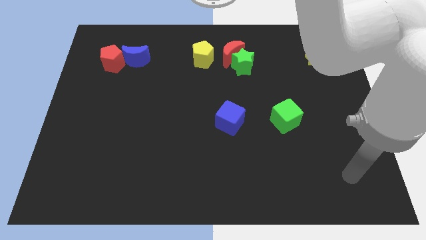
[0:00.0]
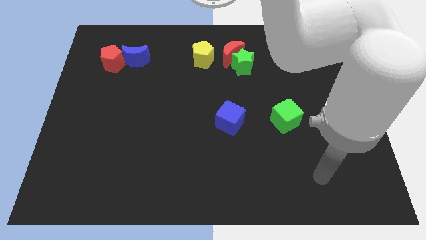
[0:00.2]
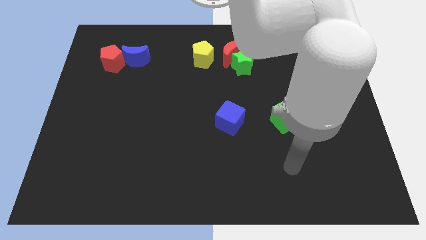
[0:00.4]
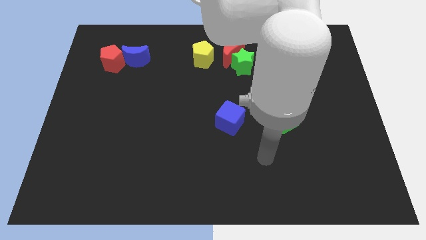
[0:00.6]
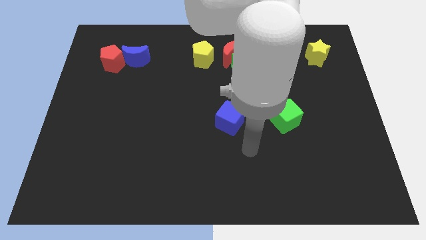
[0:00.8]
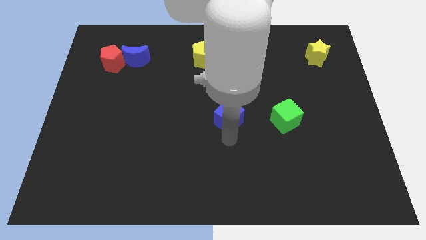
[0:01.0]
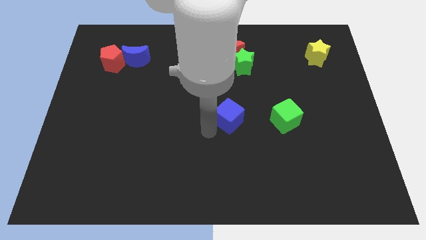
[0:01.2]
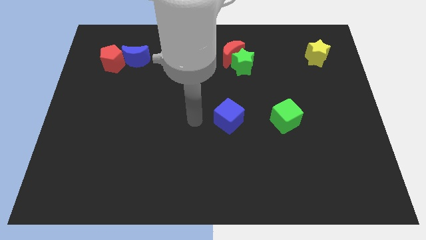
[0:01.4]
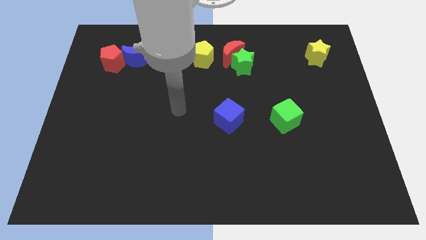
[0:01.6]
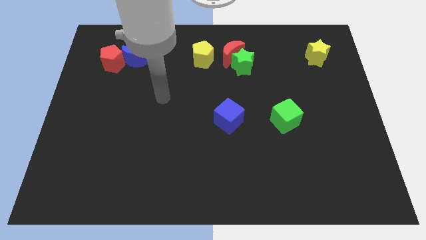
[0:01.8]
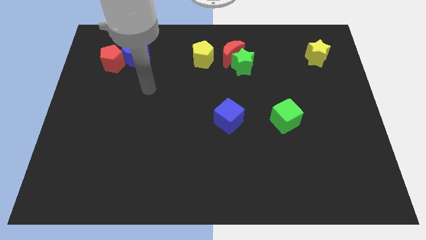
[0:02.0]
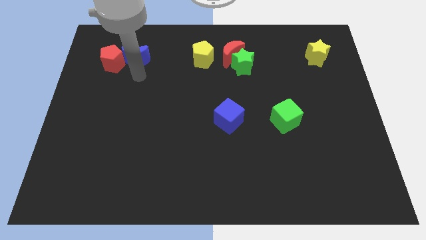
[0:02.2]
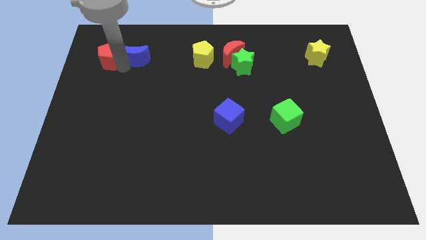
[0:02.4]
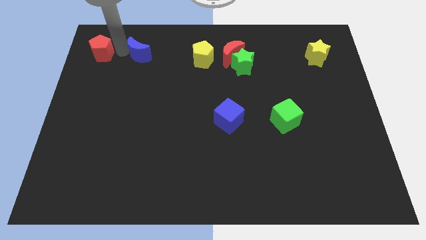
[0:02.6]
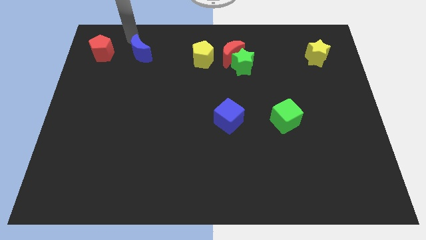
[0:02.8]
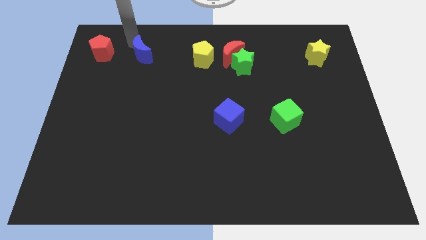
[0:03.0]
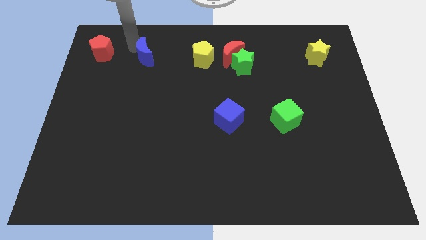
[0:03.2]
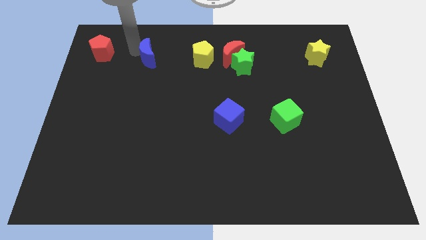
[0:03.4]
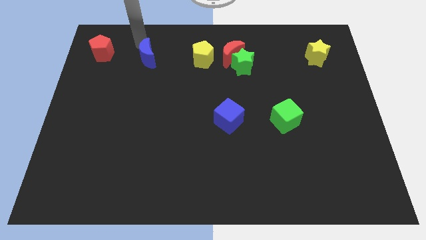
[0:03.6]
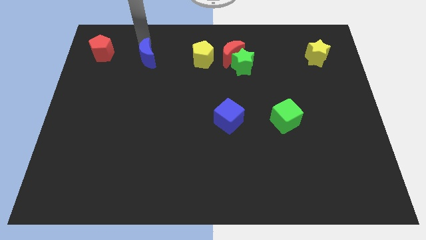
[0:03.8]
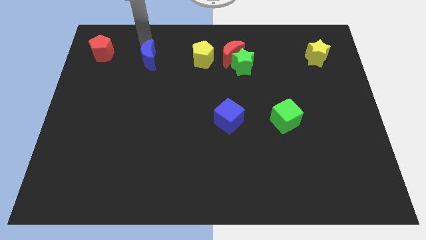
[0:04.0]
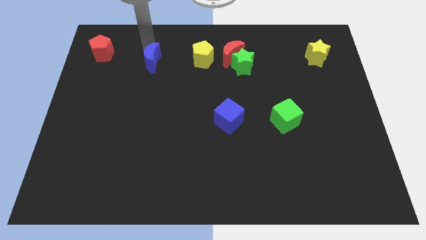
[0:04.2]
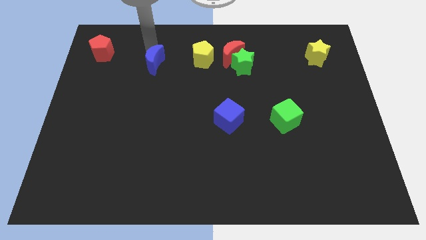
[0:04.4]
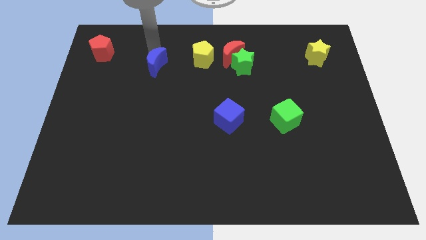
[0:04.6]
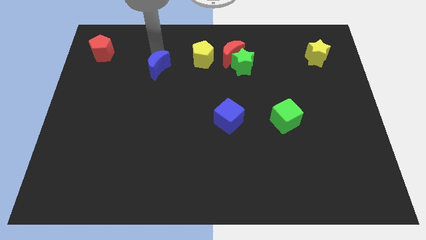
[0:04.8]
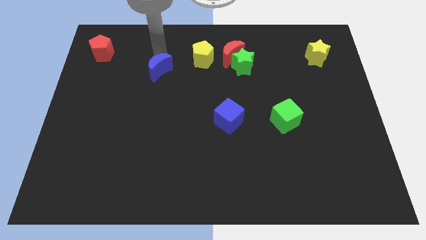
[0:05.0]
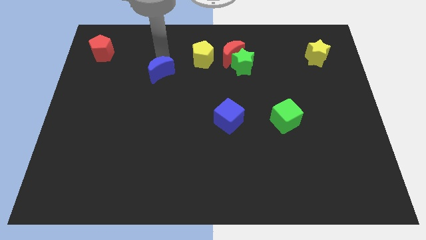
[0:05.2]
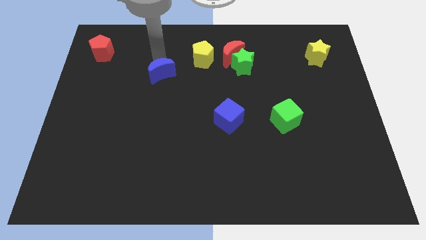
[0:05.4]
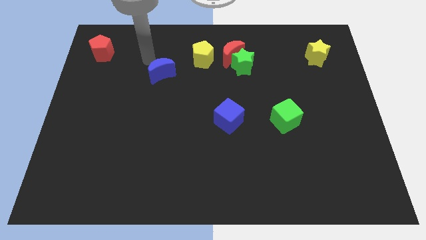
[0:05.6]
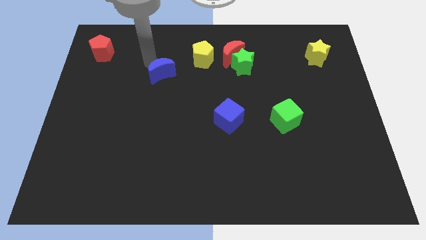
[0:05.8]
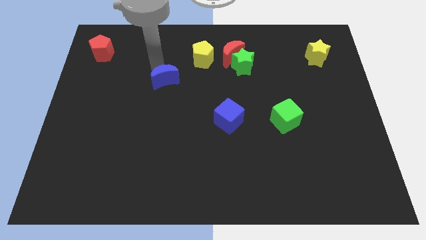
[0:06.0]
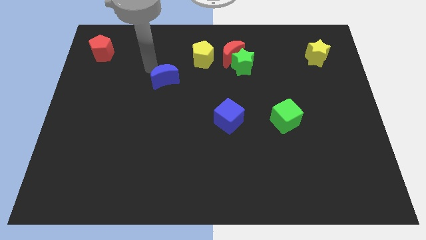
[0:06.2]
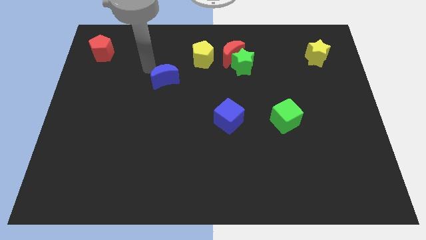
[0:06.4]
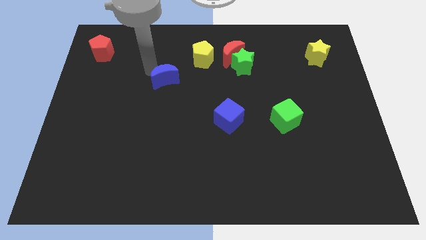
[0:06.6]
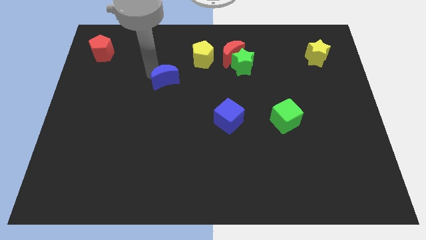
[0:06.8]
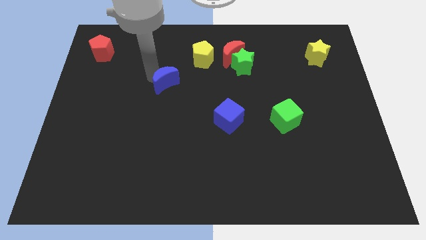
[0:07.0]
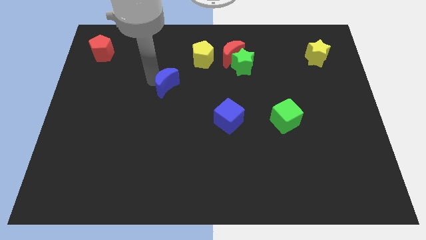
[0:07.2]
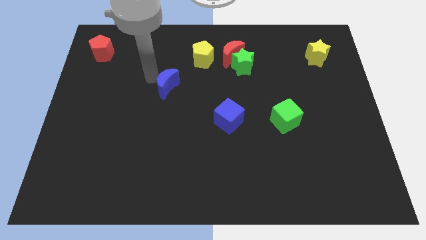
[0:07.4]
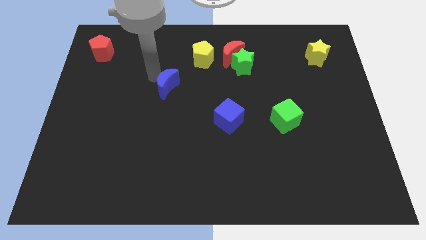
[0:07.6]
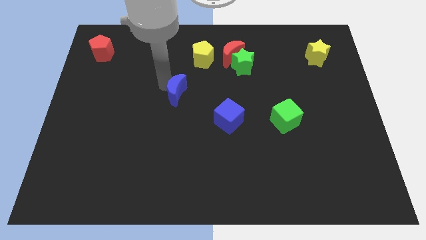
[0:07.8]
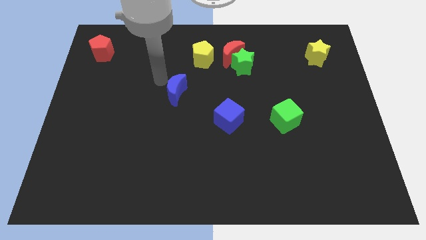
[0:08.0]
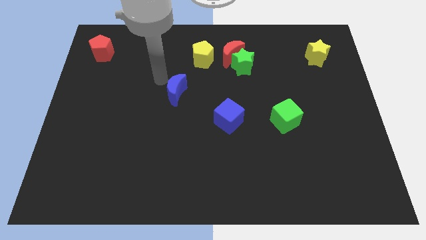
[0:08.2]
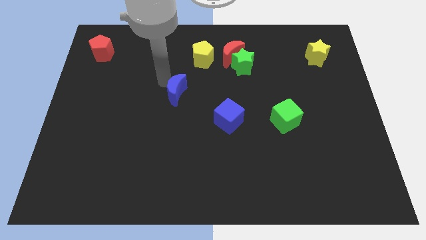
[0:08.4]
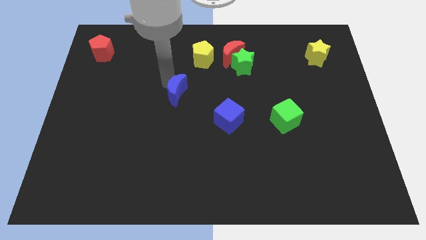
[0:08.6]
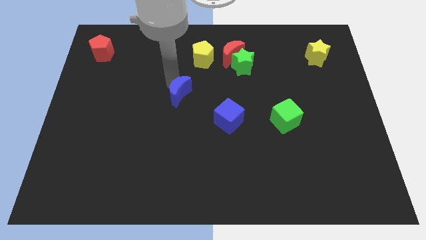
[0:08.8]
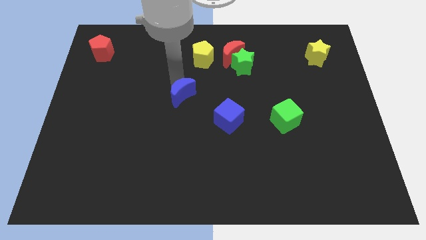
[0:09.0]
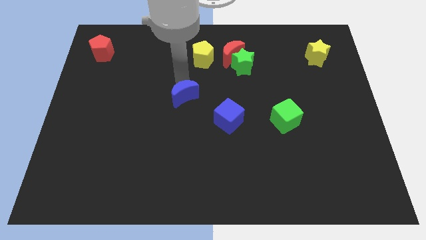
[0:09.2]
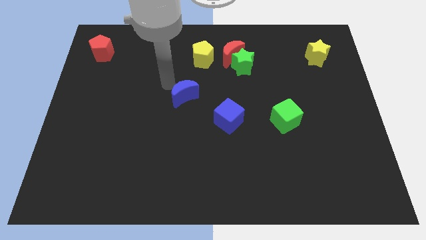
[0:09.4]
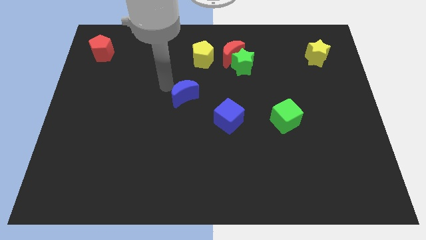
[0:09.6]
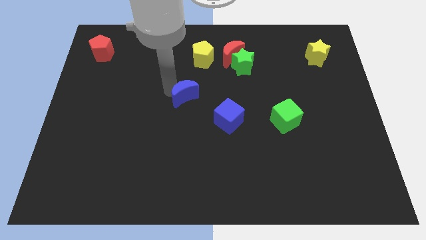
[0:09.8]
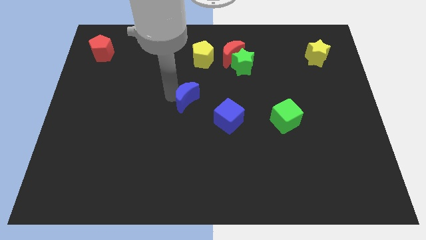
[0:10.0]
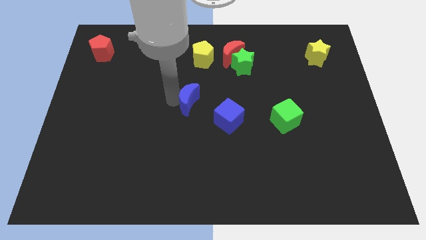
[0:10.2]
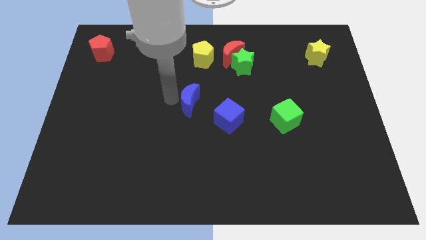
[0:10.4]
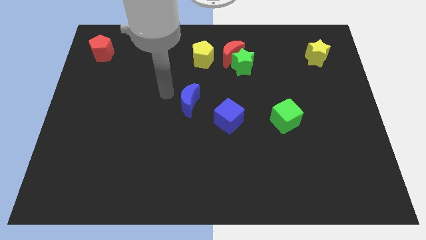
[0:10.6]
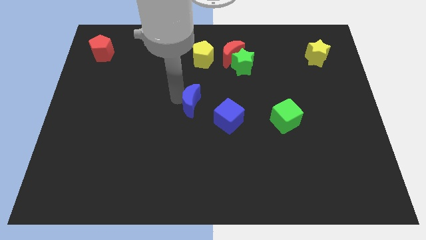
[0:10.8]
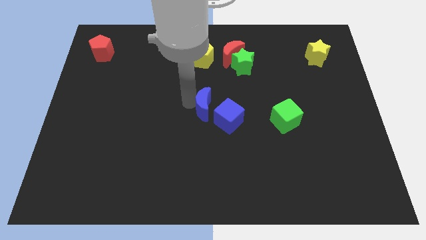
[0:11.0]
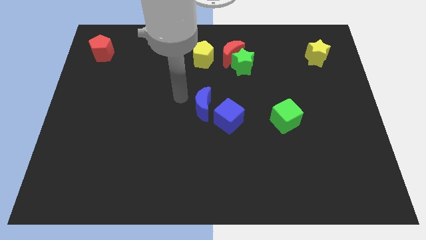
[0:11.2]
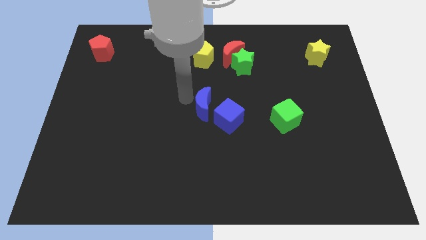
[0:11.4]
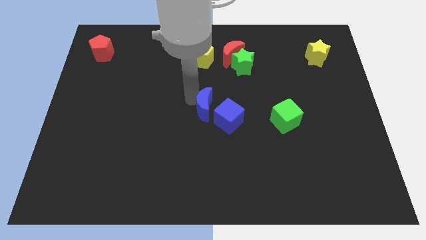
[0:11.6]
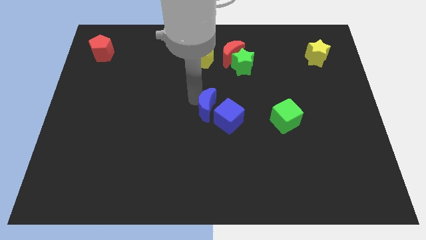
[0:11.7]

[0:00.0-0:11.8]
slide the blue moon close to the blue cube

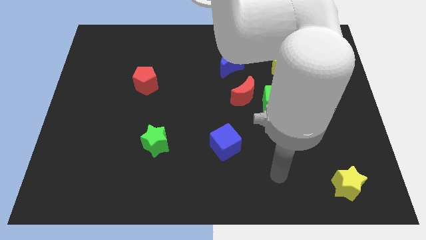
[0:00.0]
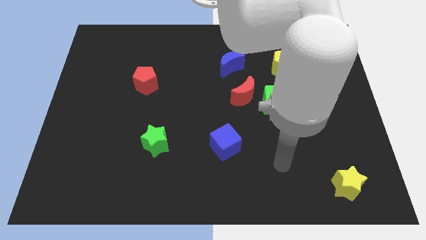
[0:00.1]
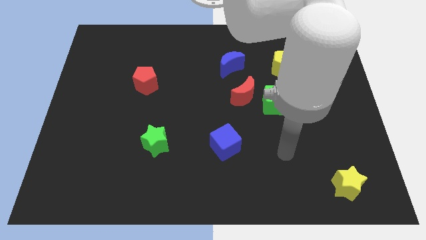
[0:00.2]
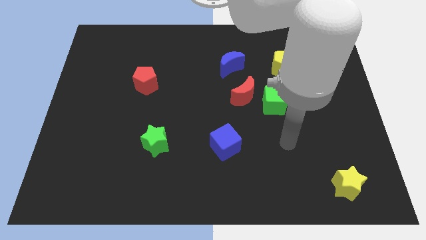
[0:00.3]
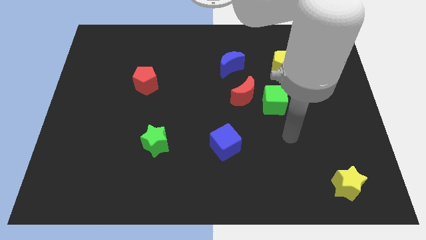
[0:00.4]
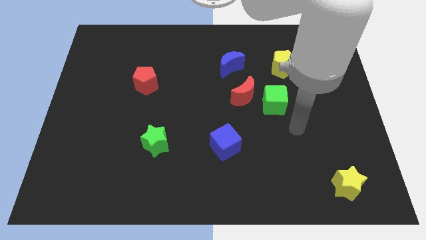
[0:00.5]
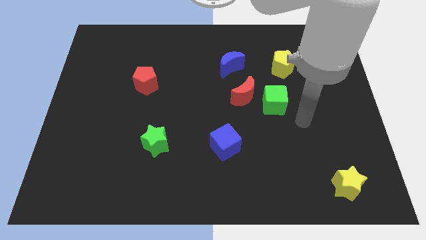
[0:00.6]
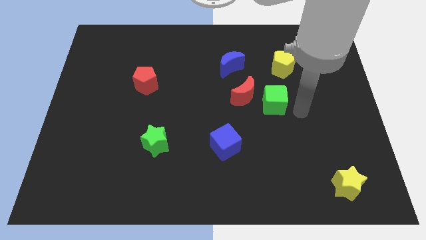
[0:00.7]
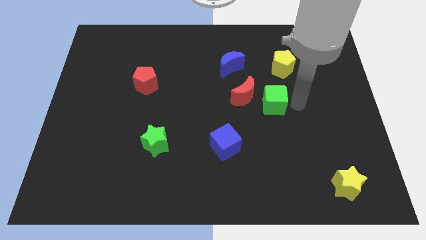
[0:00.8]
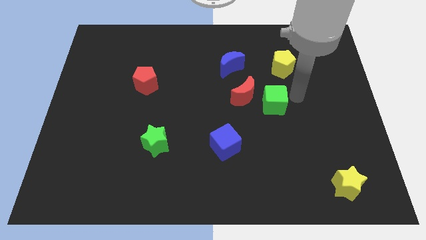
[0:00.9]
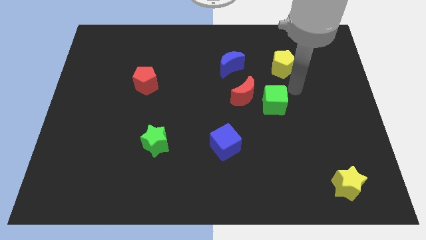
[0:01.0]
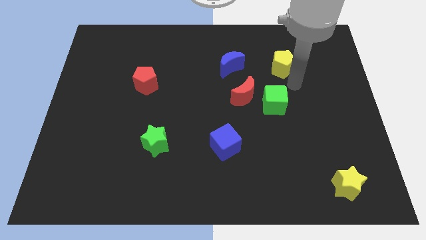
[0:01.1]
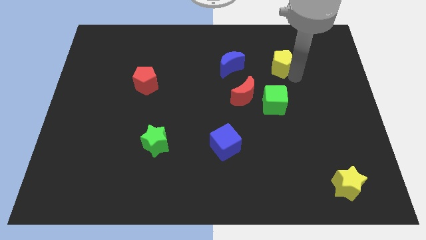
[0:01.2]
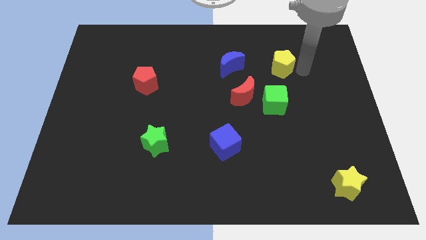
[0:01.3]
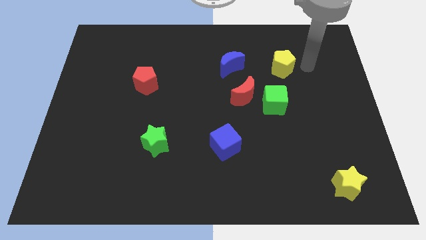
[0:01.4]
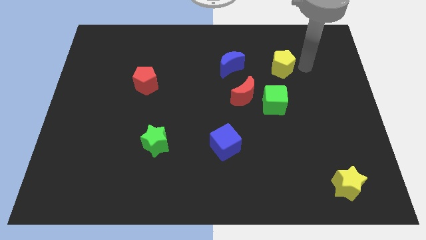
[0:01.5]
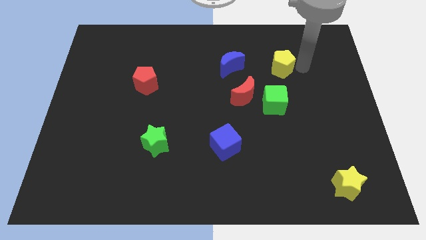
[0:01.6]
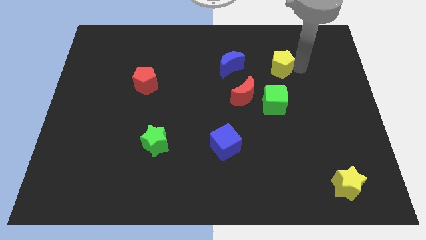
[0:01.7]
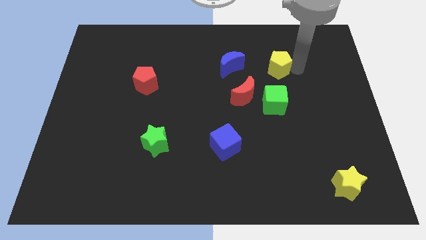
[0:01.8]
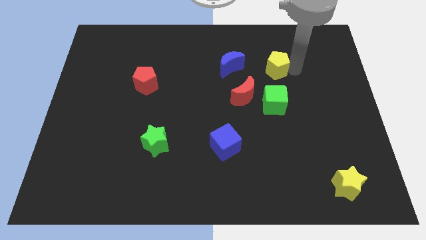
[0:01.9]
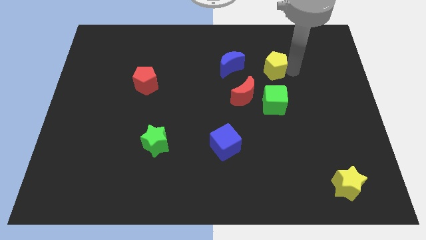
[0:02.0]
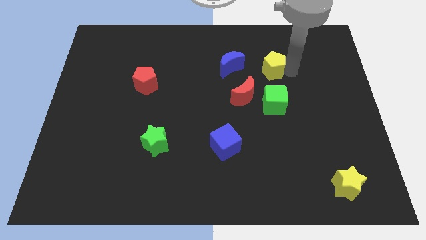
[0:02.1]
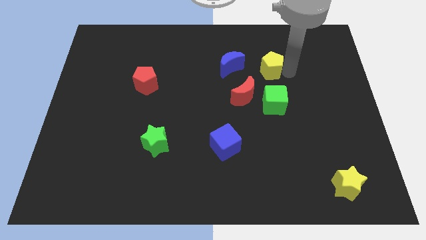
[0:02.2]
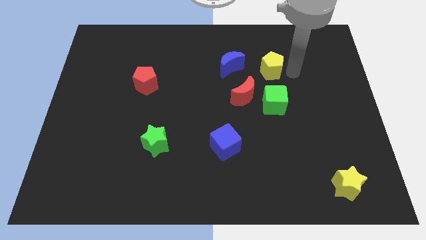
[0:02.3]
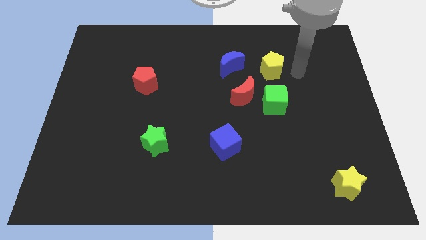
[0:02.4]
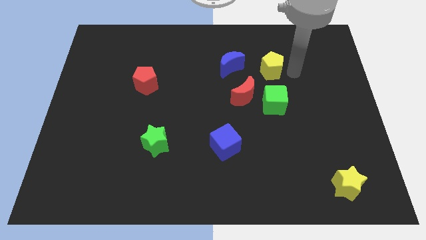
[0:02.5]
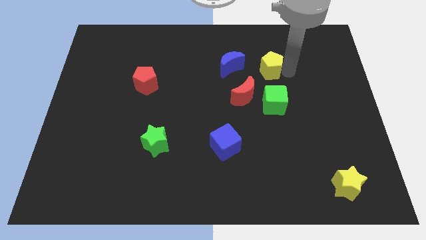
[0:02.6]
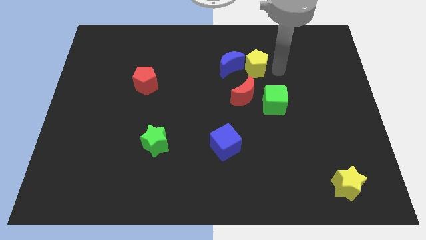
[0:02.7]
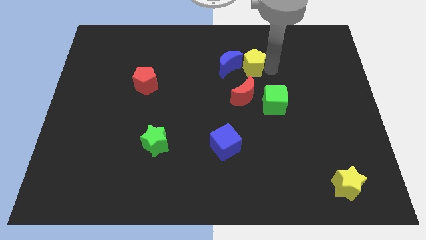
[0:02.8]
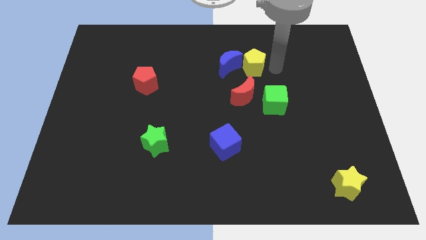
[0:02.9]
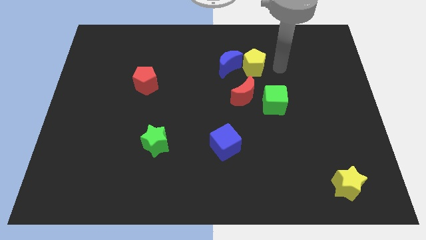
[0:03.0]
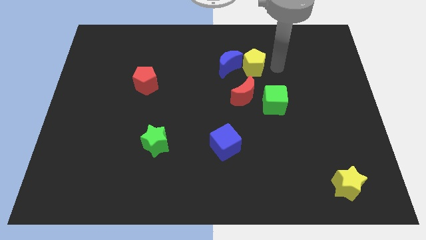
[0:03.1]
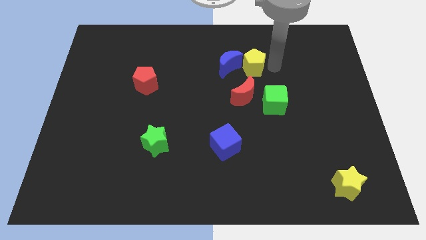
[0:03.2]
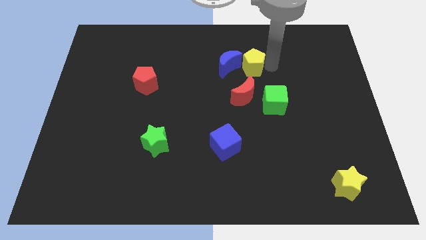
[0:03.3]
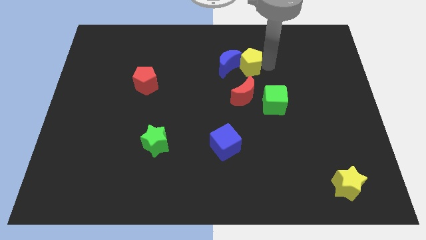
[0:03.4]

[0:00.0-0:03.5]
move the yellow pentagon close to the blue moon
